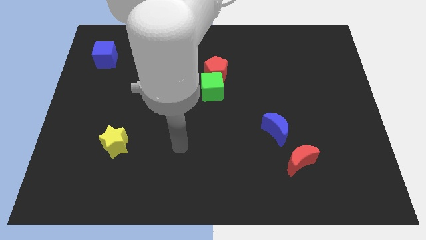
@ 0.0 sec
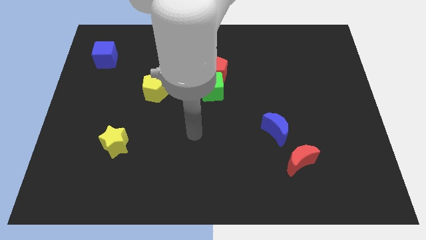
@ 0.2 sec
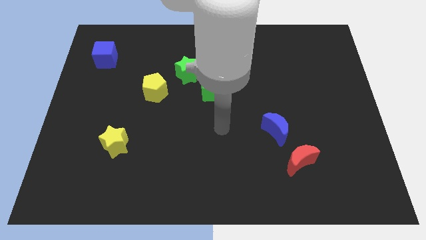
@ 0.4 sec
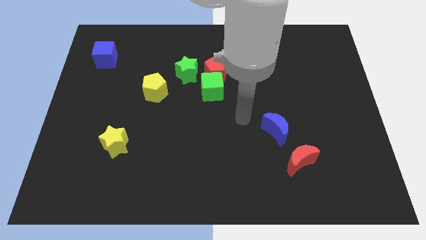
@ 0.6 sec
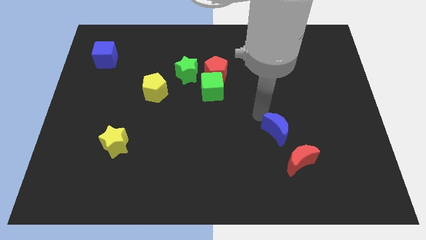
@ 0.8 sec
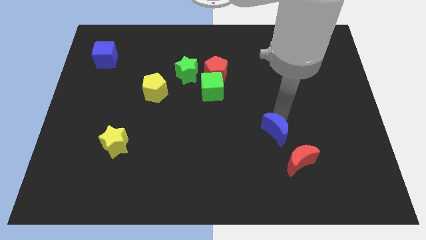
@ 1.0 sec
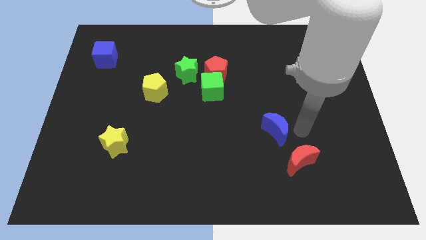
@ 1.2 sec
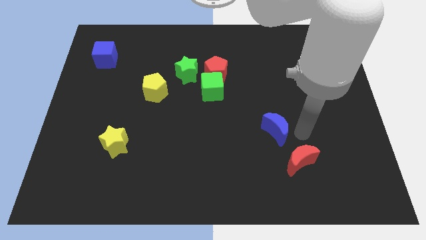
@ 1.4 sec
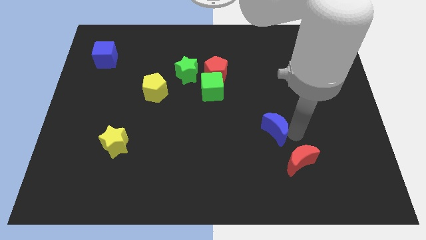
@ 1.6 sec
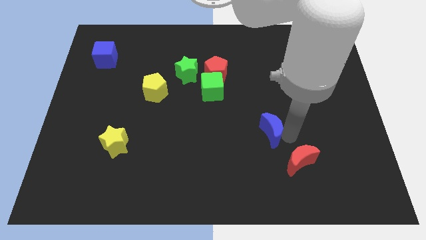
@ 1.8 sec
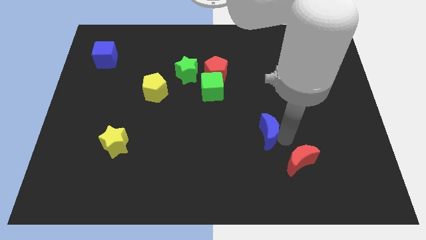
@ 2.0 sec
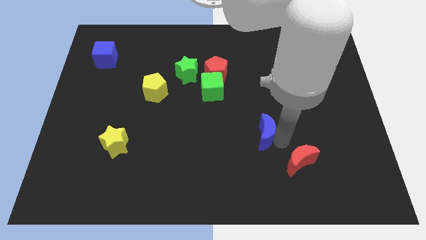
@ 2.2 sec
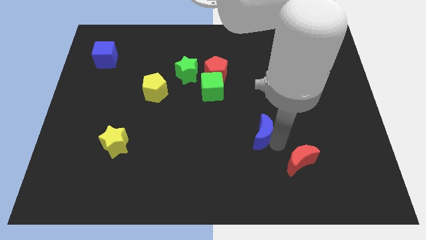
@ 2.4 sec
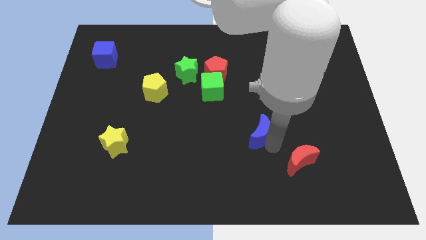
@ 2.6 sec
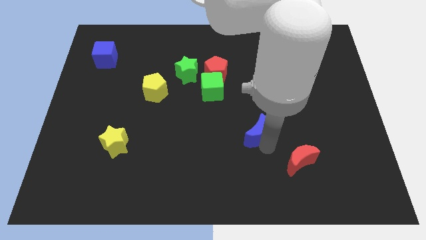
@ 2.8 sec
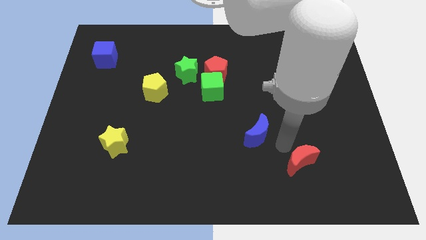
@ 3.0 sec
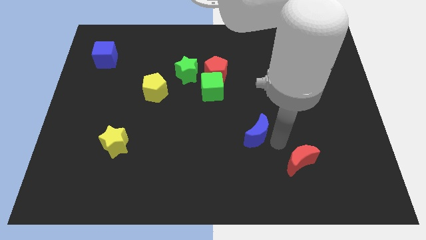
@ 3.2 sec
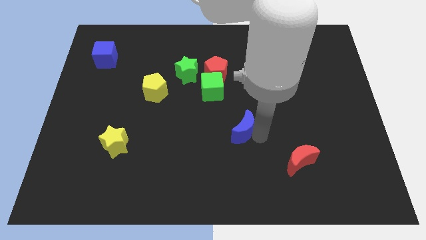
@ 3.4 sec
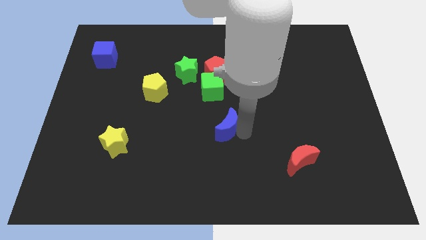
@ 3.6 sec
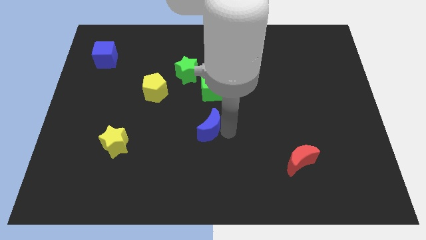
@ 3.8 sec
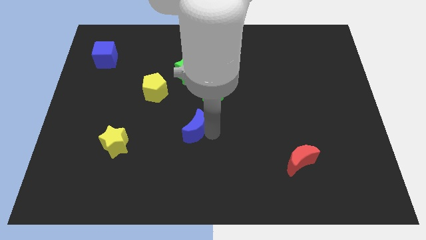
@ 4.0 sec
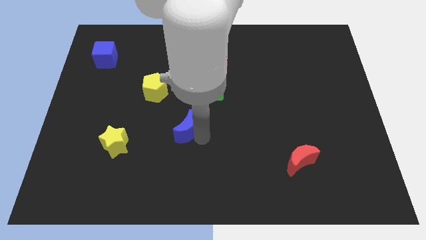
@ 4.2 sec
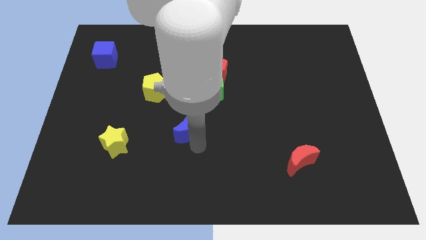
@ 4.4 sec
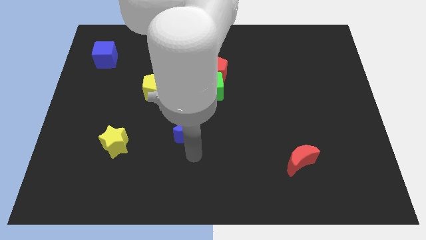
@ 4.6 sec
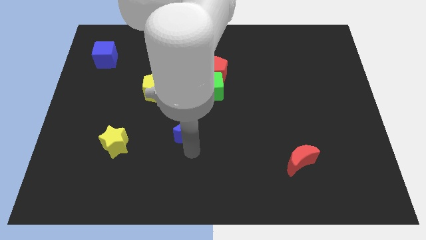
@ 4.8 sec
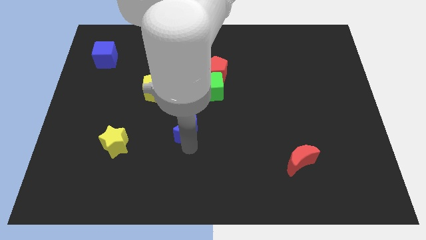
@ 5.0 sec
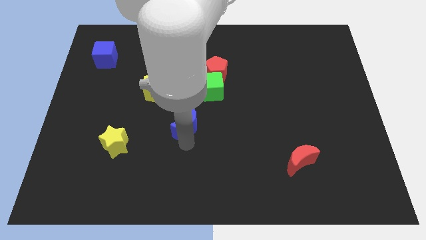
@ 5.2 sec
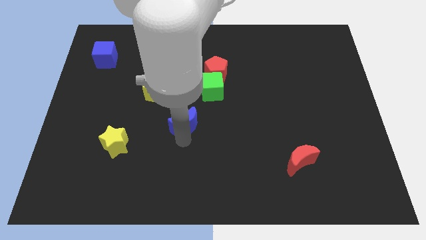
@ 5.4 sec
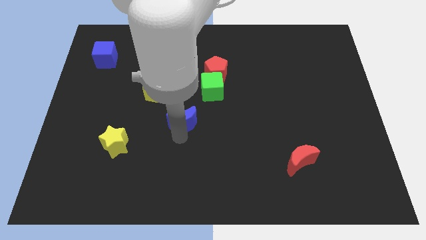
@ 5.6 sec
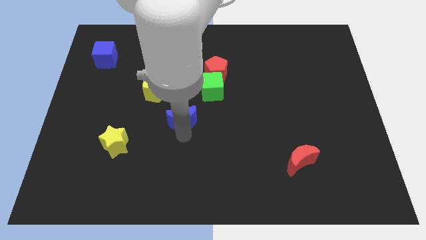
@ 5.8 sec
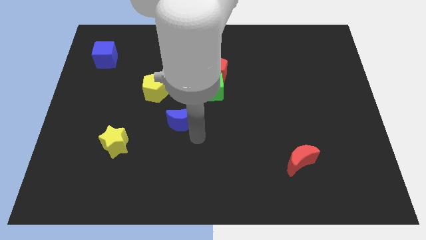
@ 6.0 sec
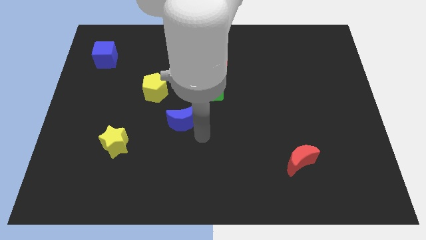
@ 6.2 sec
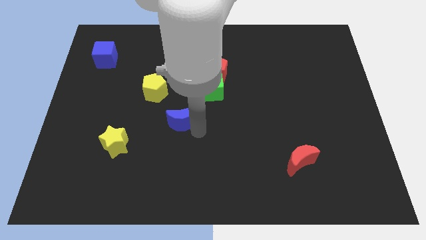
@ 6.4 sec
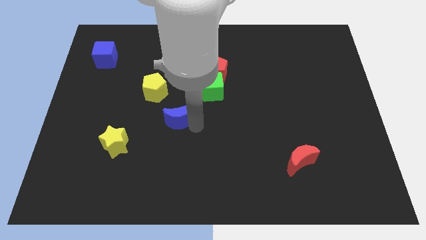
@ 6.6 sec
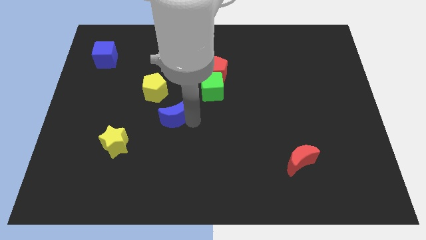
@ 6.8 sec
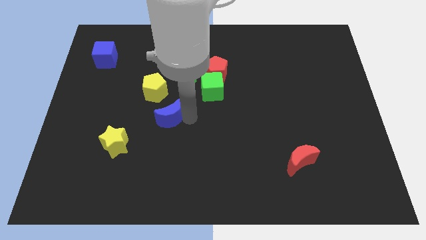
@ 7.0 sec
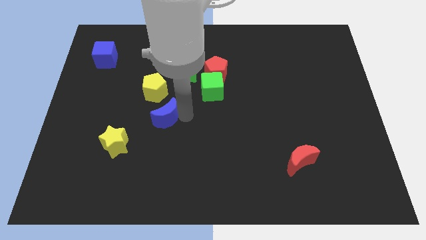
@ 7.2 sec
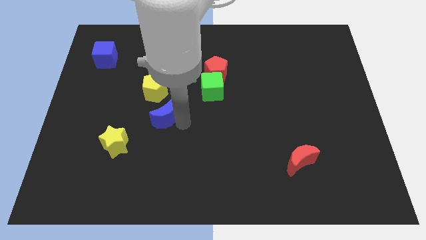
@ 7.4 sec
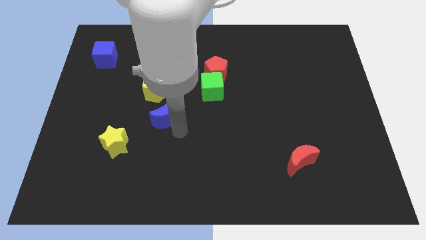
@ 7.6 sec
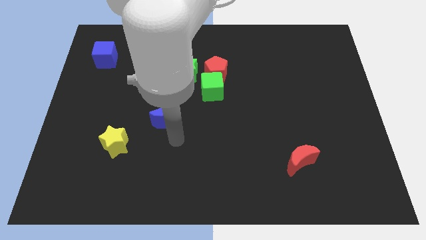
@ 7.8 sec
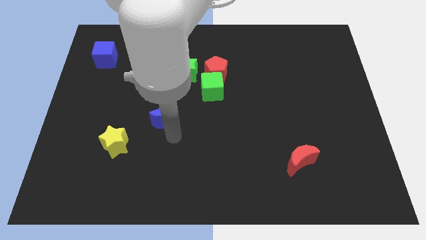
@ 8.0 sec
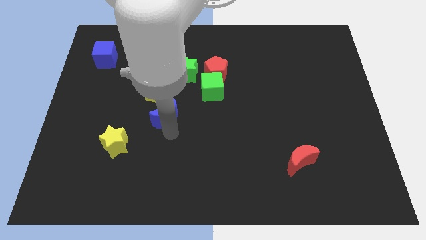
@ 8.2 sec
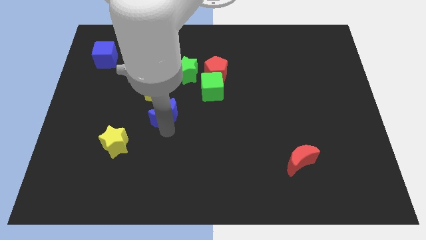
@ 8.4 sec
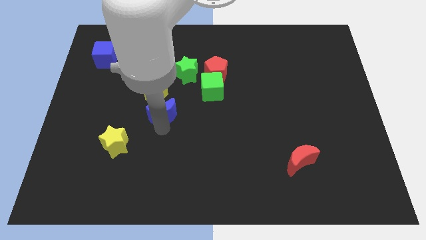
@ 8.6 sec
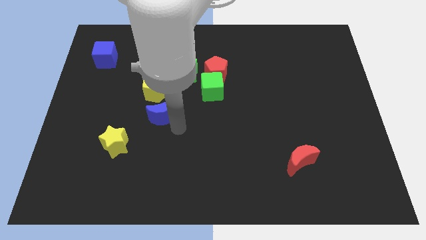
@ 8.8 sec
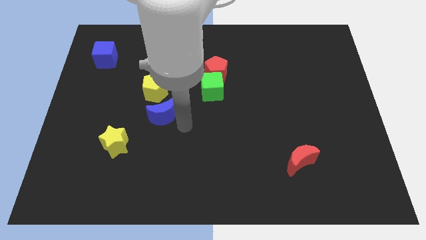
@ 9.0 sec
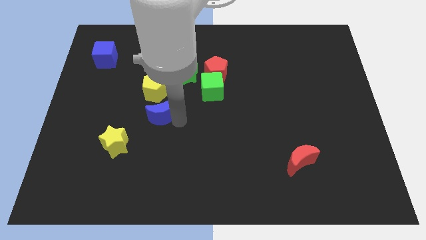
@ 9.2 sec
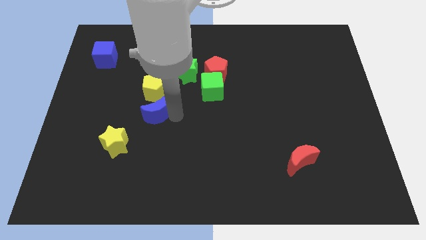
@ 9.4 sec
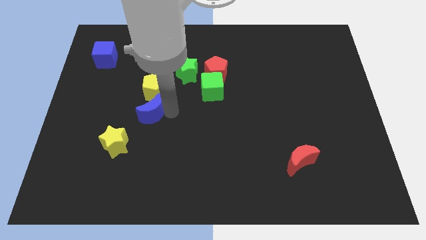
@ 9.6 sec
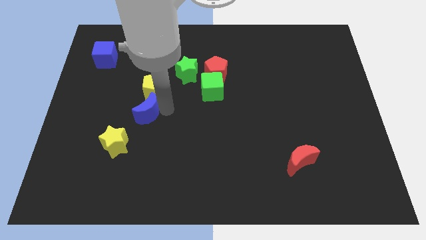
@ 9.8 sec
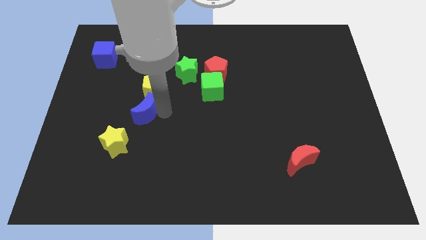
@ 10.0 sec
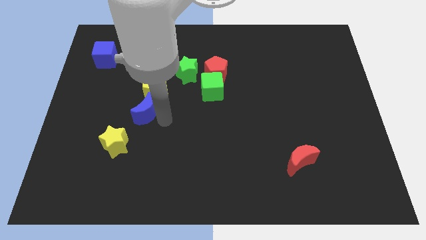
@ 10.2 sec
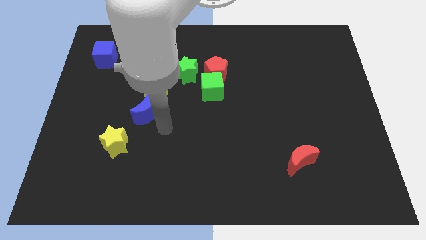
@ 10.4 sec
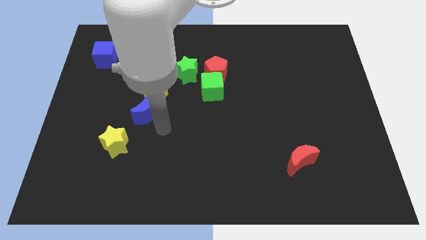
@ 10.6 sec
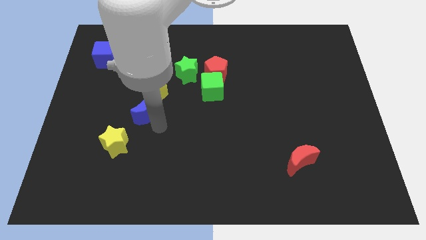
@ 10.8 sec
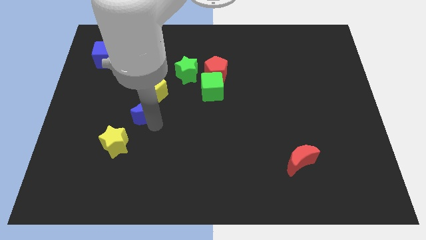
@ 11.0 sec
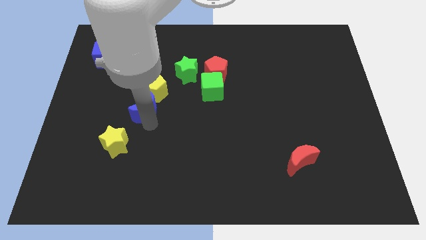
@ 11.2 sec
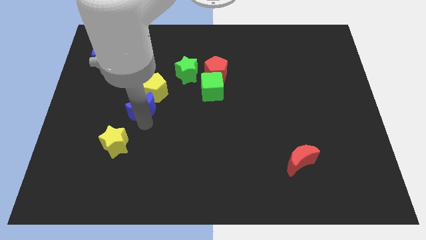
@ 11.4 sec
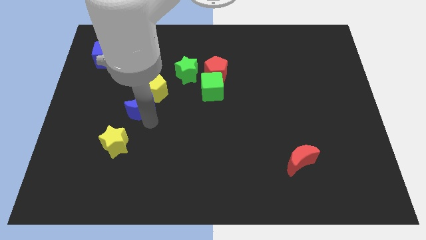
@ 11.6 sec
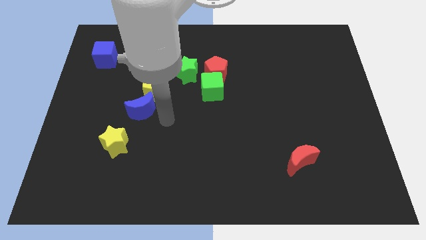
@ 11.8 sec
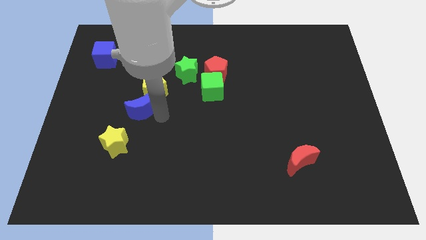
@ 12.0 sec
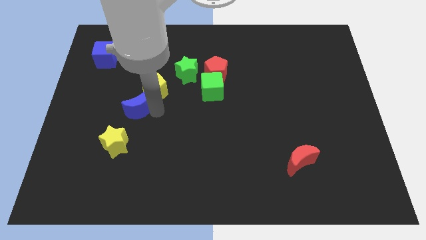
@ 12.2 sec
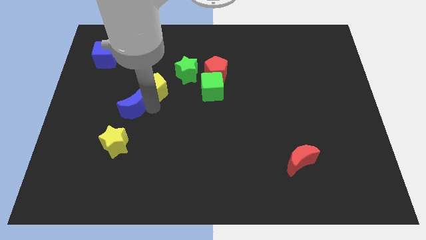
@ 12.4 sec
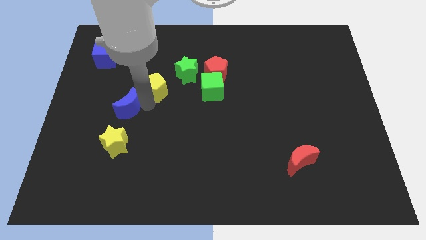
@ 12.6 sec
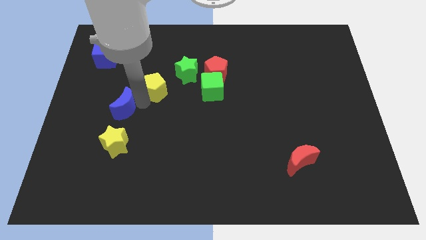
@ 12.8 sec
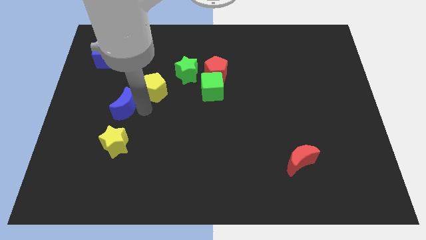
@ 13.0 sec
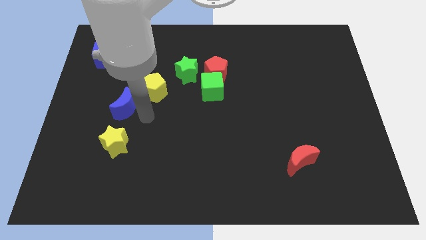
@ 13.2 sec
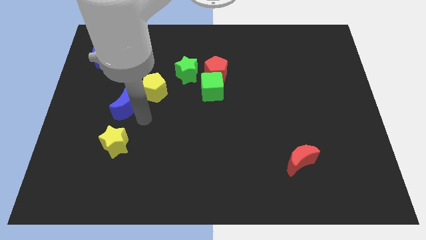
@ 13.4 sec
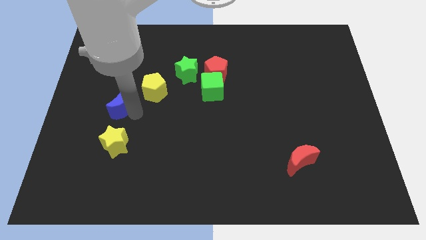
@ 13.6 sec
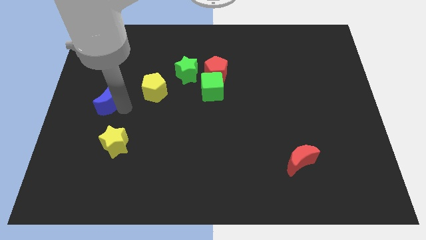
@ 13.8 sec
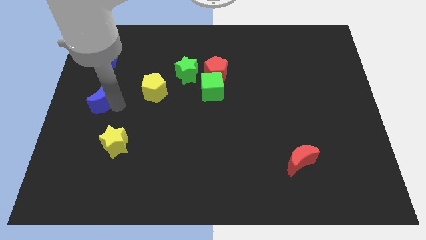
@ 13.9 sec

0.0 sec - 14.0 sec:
push the blue moon to the left side

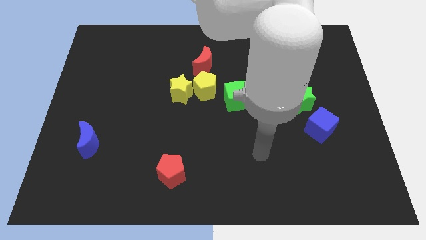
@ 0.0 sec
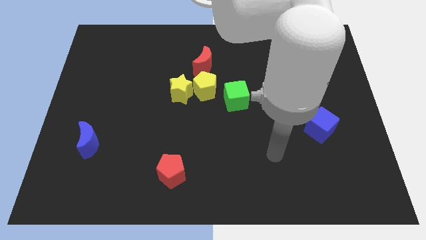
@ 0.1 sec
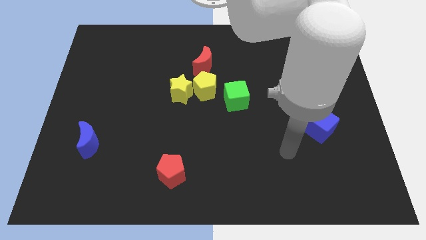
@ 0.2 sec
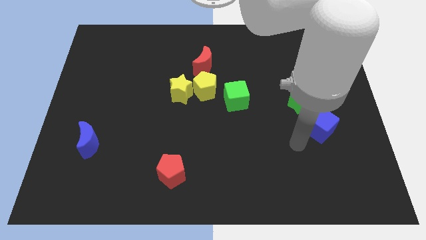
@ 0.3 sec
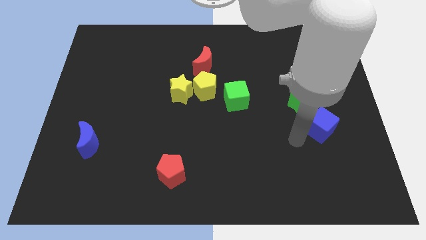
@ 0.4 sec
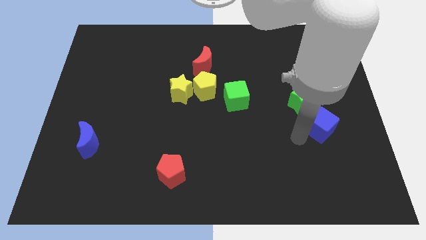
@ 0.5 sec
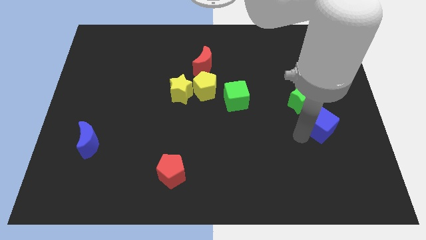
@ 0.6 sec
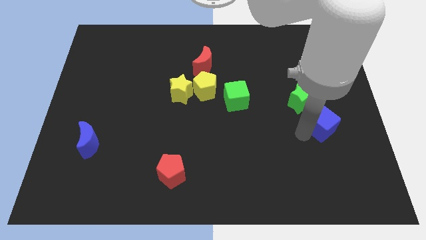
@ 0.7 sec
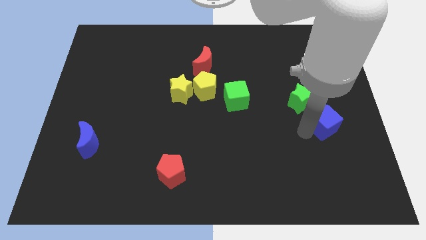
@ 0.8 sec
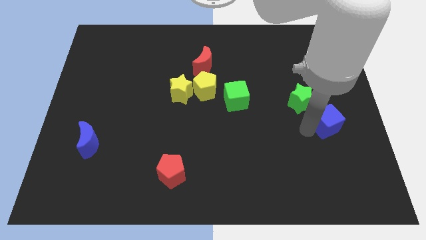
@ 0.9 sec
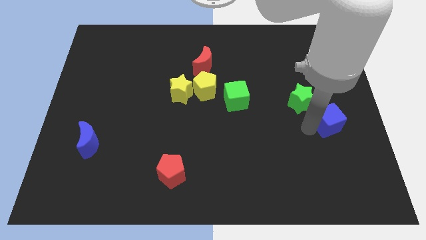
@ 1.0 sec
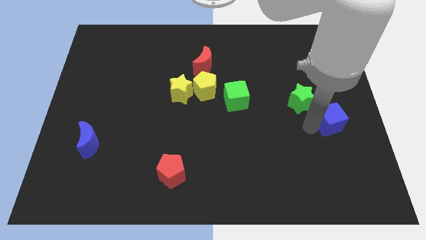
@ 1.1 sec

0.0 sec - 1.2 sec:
move the blue cube to the right side
